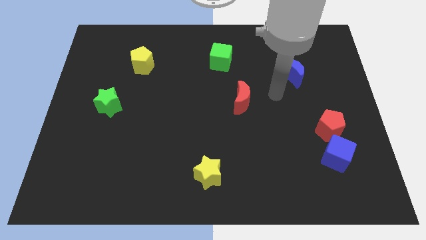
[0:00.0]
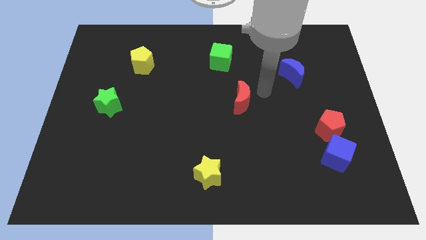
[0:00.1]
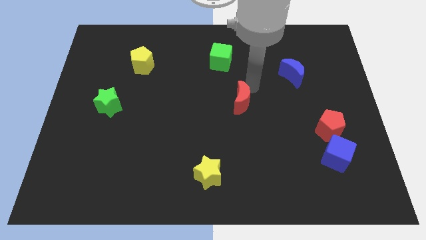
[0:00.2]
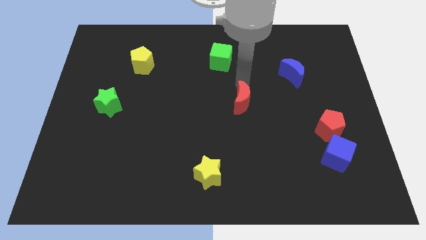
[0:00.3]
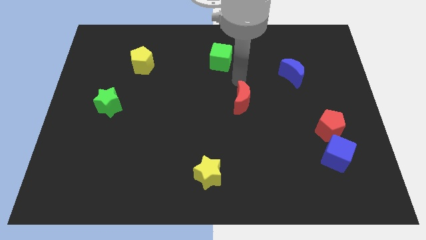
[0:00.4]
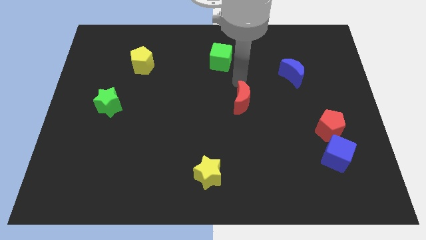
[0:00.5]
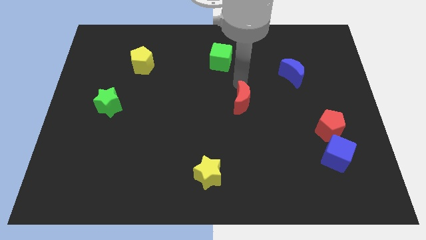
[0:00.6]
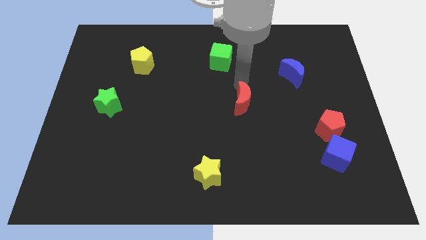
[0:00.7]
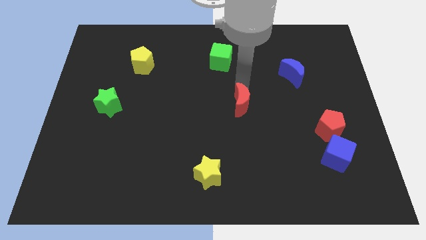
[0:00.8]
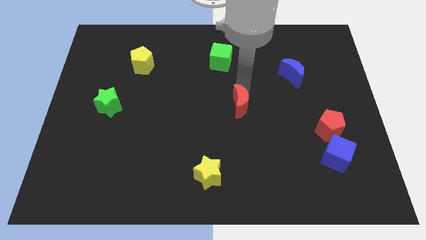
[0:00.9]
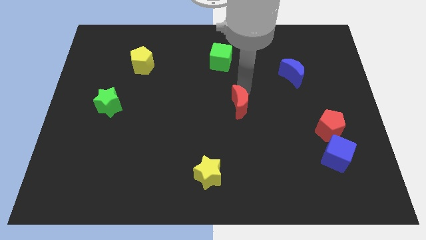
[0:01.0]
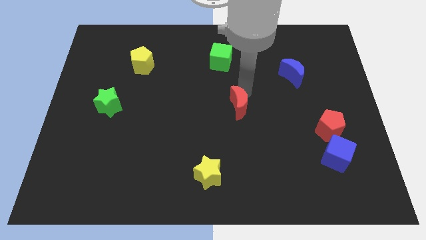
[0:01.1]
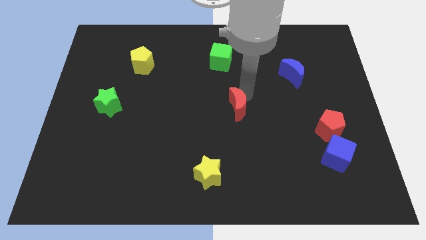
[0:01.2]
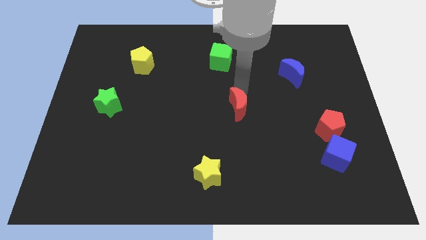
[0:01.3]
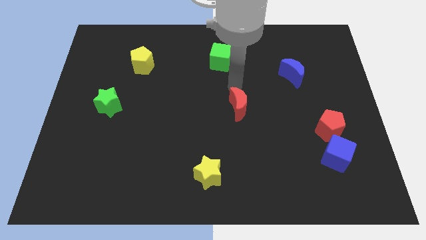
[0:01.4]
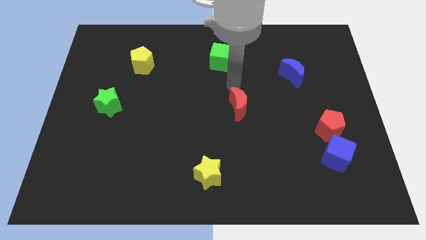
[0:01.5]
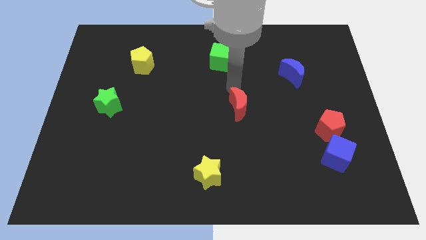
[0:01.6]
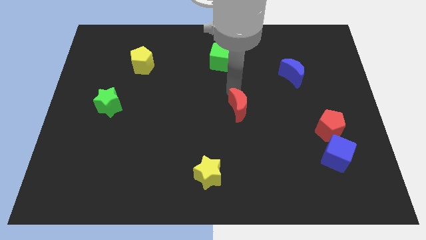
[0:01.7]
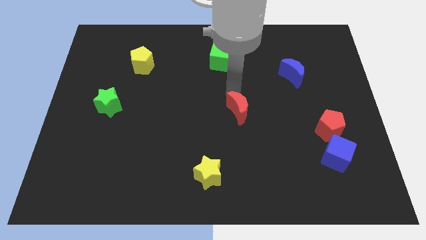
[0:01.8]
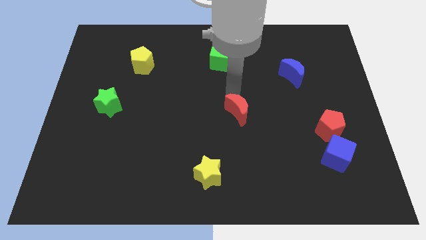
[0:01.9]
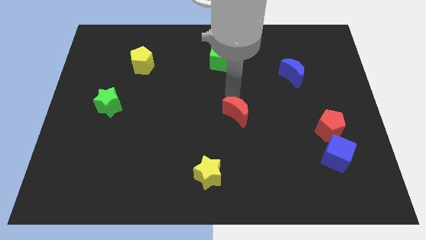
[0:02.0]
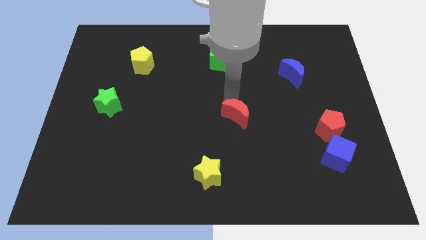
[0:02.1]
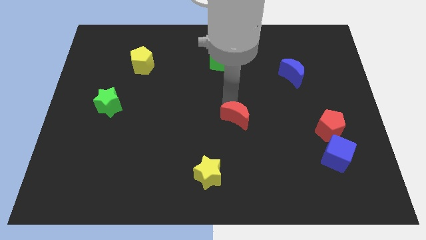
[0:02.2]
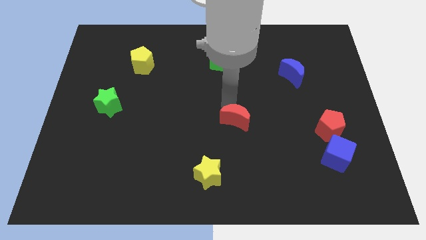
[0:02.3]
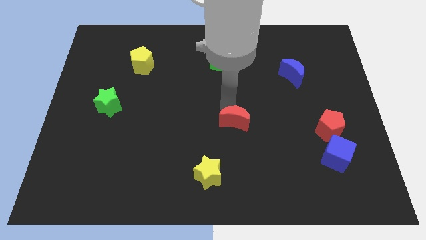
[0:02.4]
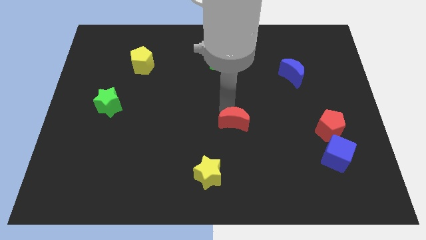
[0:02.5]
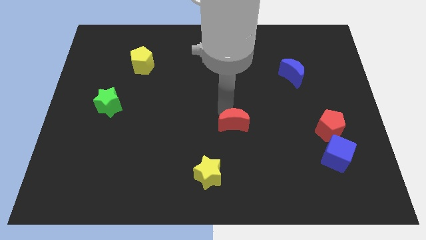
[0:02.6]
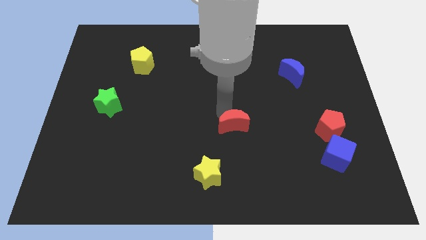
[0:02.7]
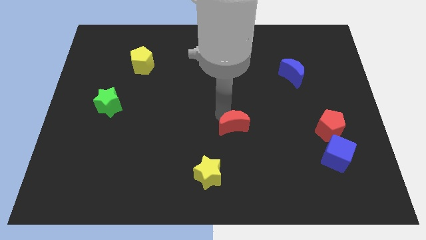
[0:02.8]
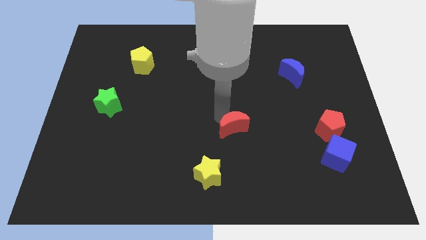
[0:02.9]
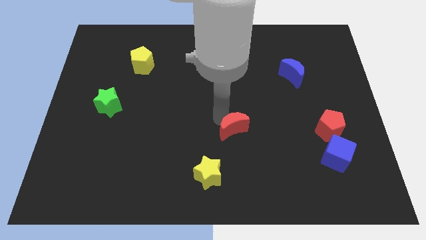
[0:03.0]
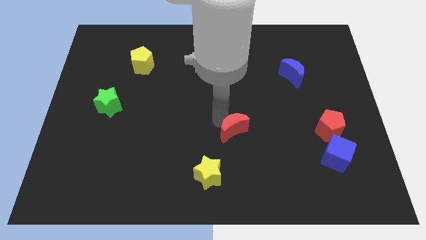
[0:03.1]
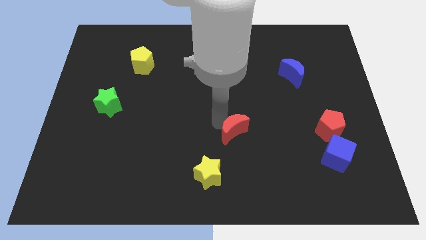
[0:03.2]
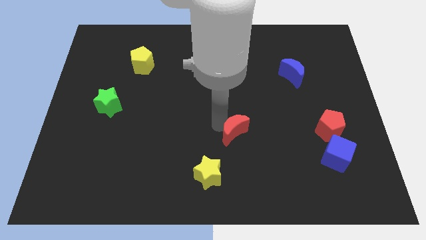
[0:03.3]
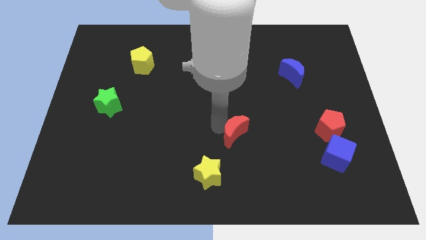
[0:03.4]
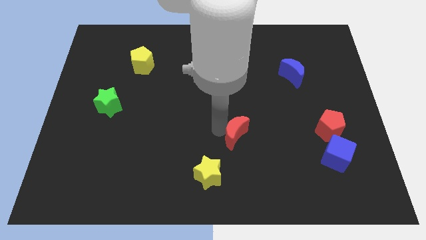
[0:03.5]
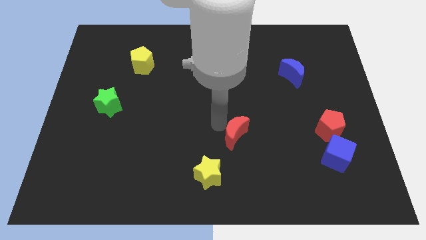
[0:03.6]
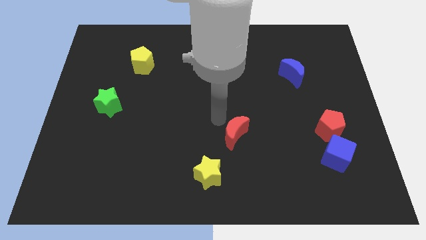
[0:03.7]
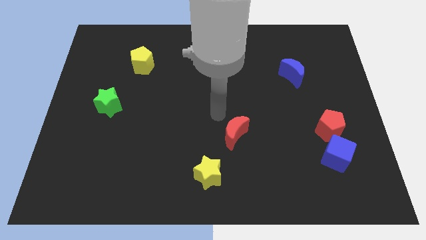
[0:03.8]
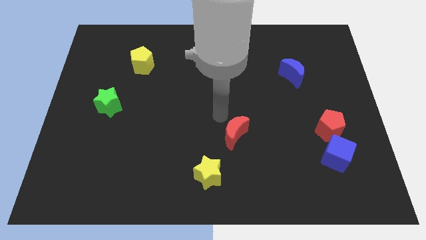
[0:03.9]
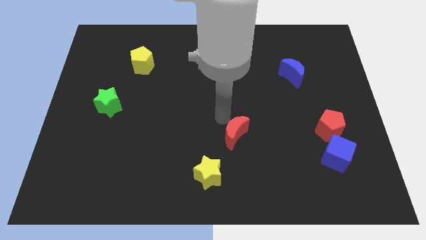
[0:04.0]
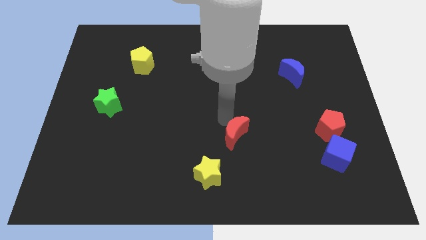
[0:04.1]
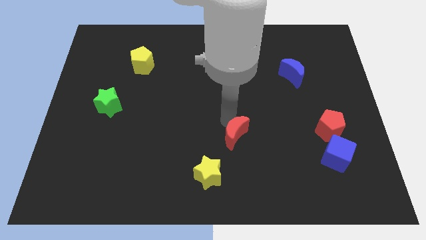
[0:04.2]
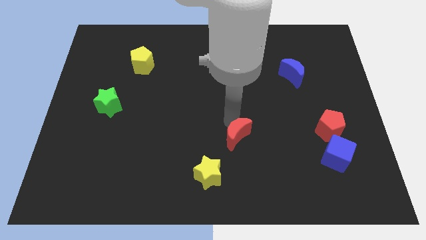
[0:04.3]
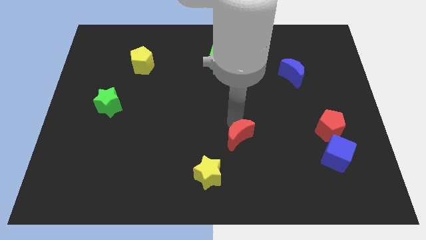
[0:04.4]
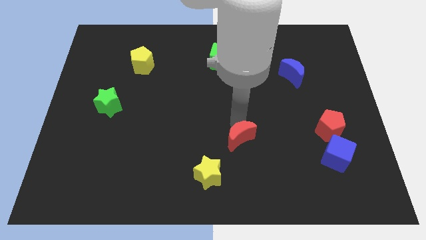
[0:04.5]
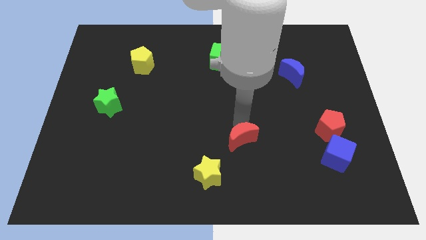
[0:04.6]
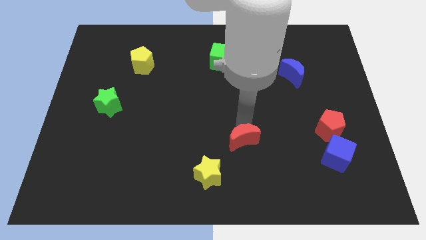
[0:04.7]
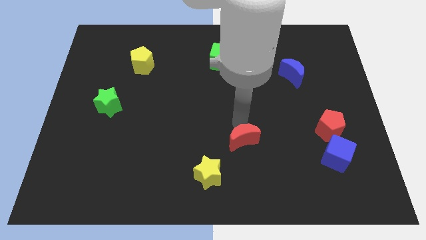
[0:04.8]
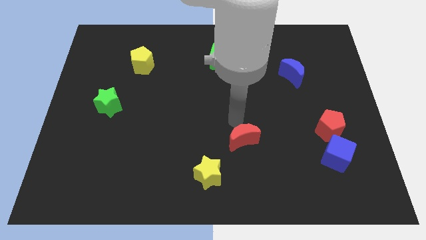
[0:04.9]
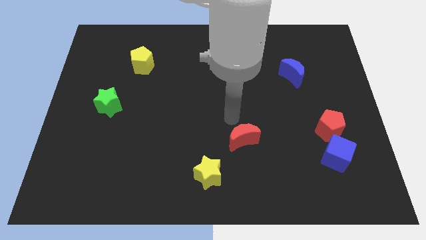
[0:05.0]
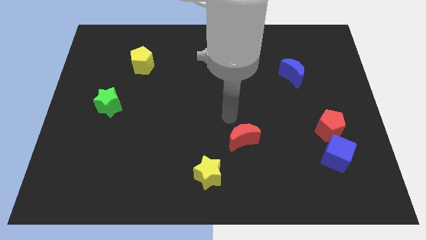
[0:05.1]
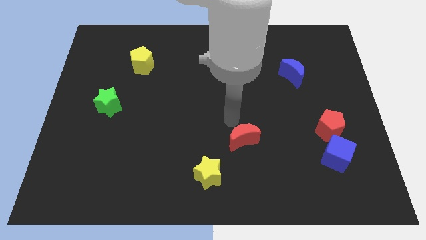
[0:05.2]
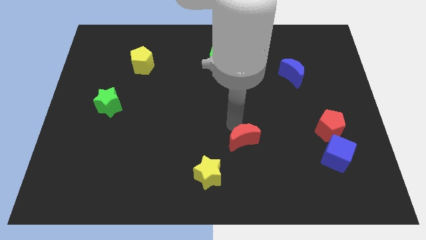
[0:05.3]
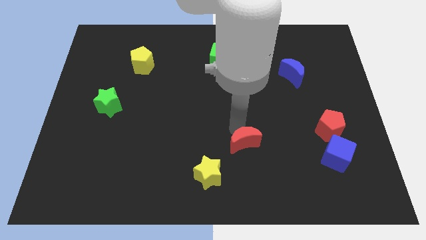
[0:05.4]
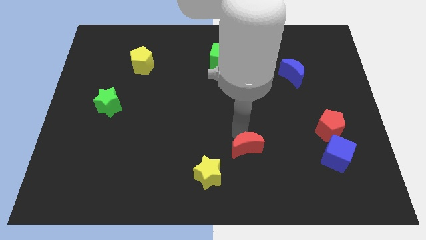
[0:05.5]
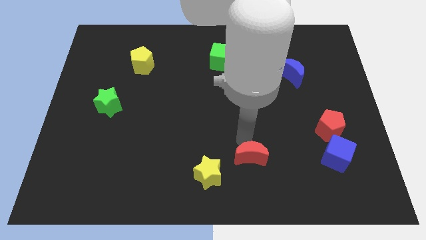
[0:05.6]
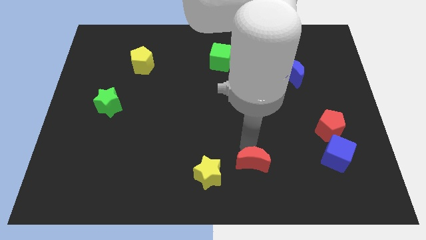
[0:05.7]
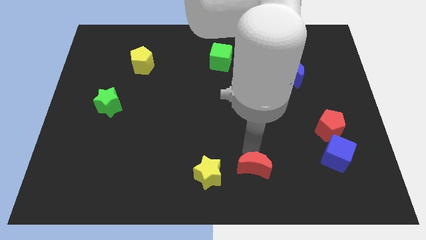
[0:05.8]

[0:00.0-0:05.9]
put the red moon to the bottom side

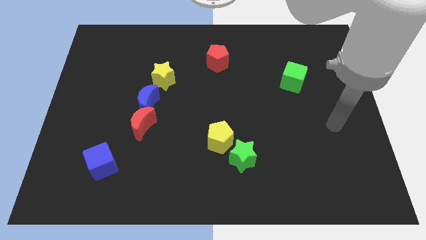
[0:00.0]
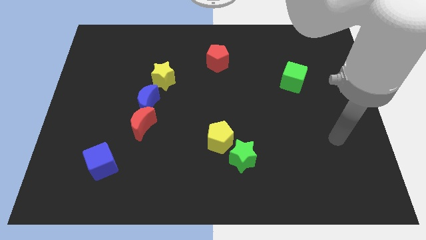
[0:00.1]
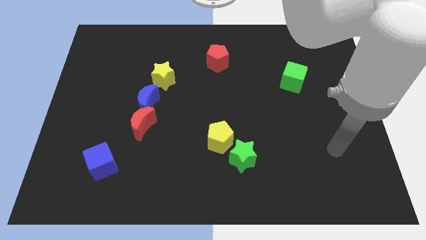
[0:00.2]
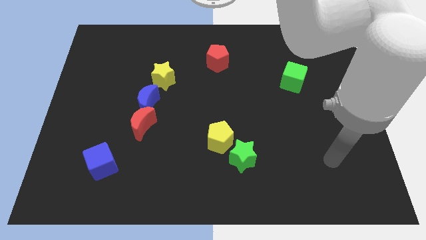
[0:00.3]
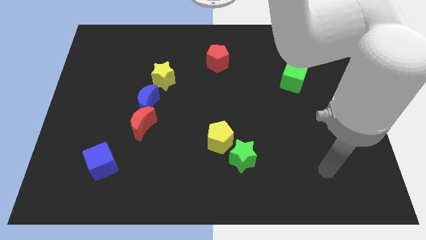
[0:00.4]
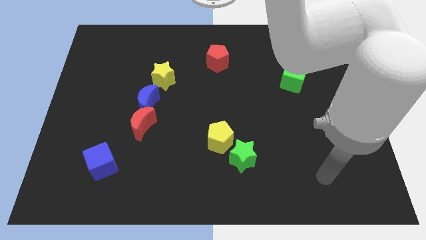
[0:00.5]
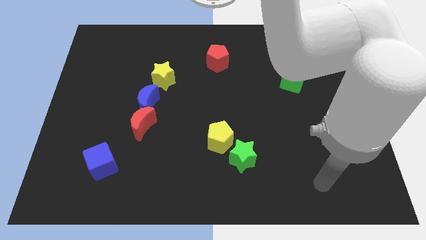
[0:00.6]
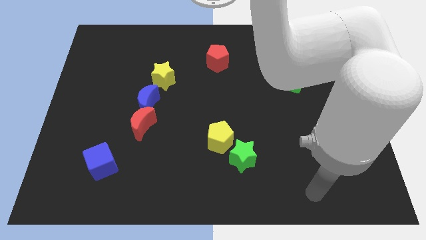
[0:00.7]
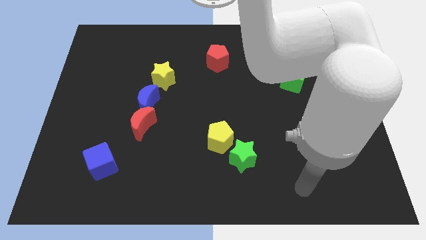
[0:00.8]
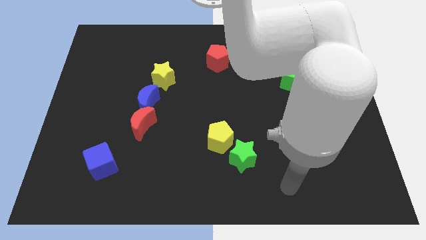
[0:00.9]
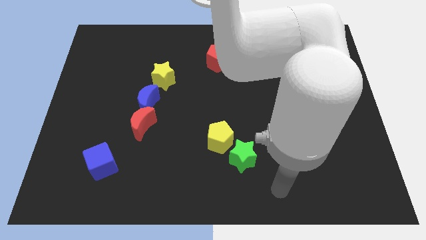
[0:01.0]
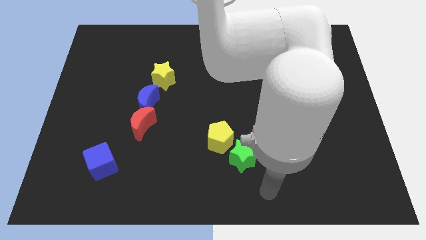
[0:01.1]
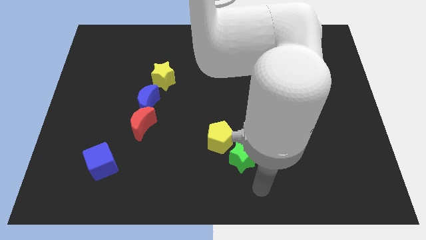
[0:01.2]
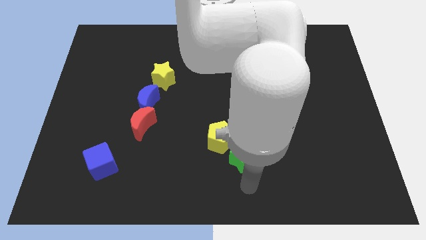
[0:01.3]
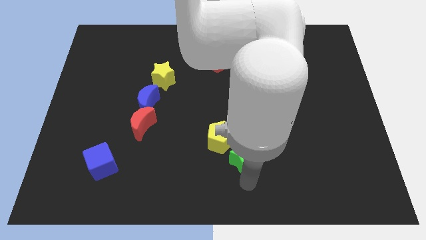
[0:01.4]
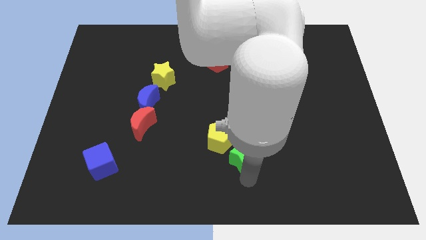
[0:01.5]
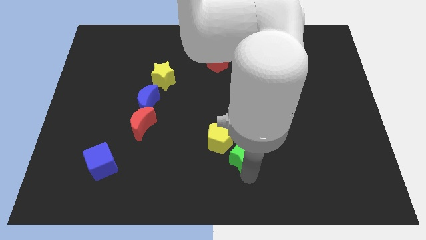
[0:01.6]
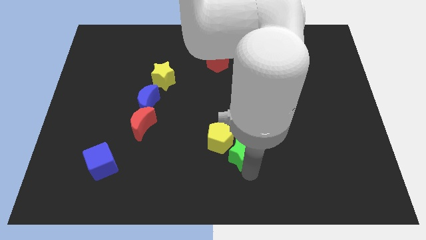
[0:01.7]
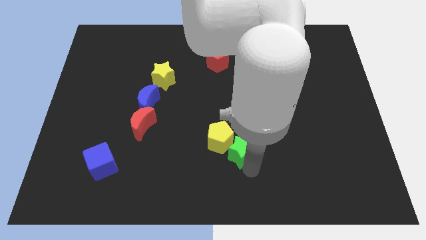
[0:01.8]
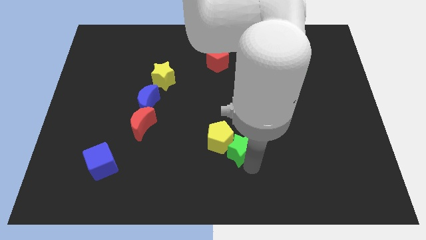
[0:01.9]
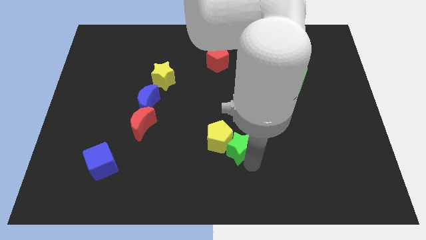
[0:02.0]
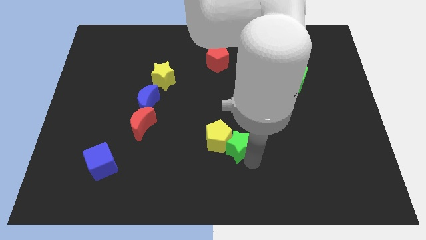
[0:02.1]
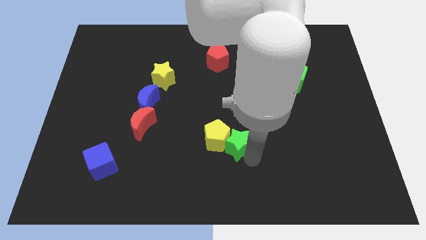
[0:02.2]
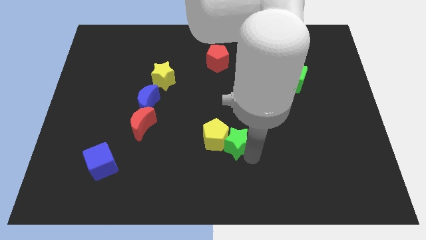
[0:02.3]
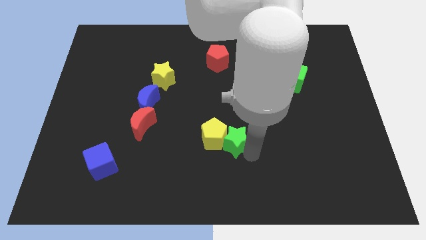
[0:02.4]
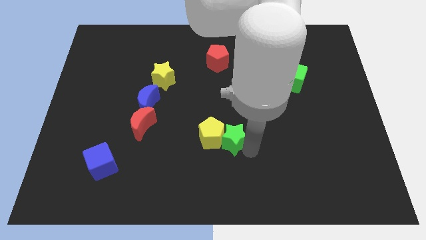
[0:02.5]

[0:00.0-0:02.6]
move the green star to the middle
